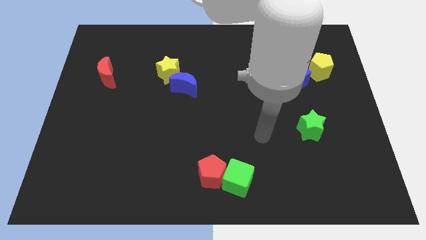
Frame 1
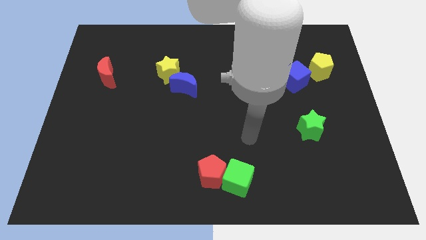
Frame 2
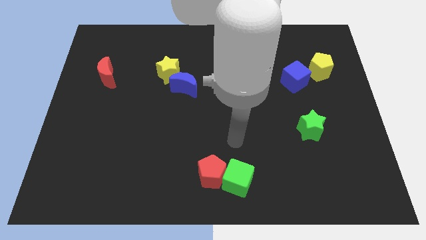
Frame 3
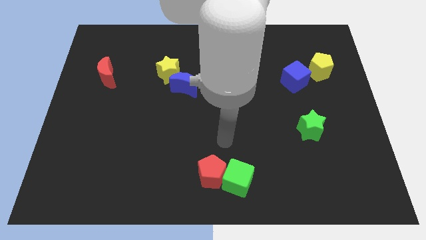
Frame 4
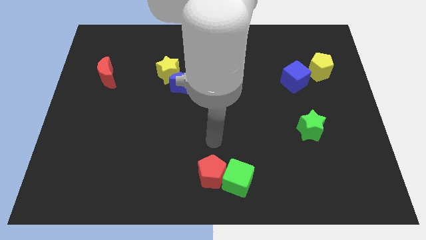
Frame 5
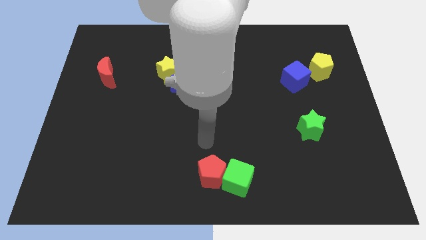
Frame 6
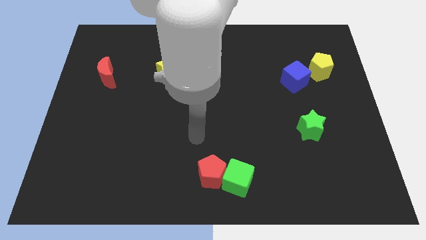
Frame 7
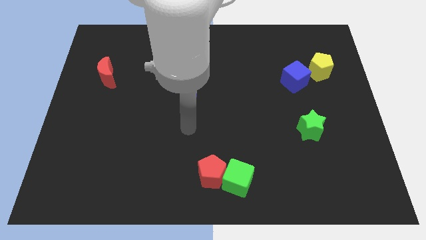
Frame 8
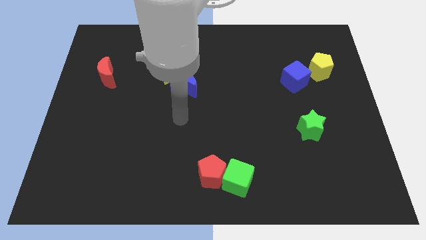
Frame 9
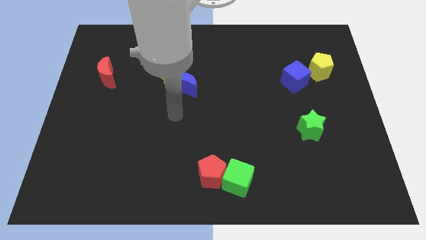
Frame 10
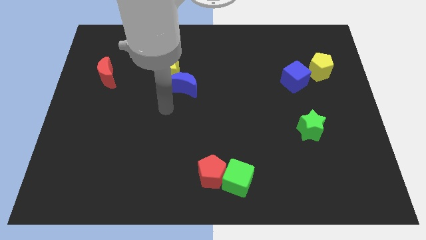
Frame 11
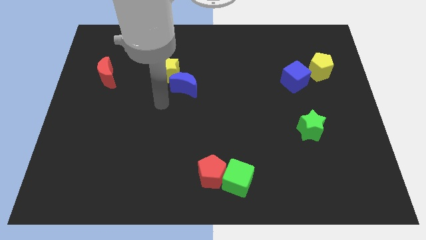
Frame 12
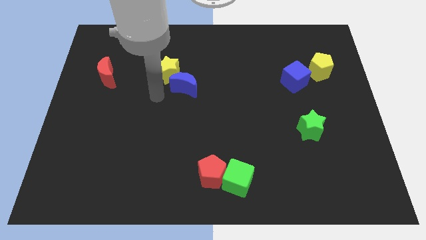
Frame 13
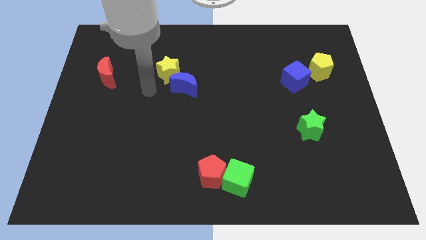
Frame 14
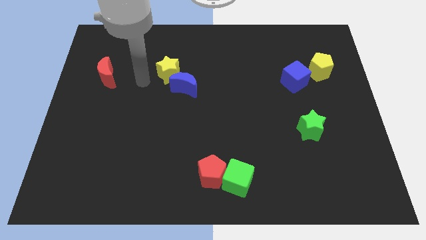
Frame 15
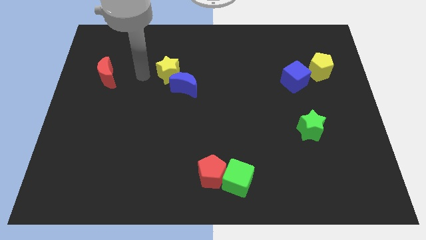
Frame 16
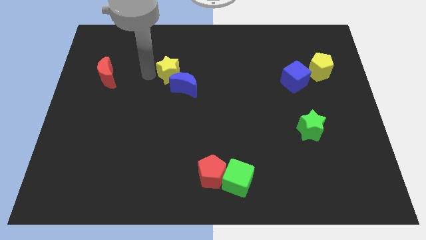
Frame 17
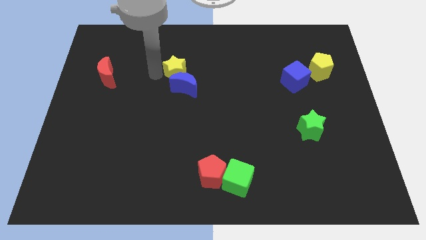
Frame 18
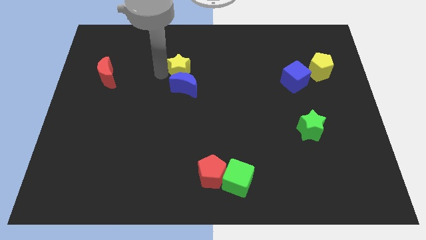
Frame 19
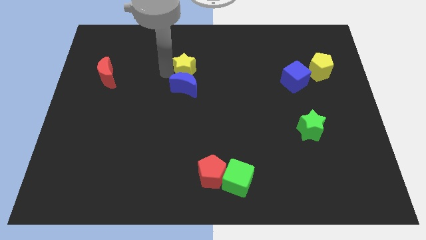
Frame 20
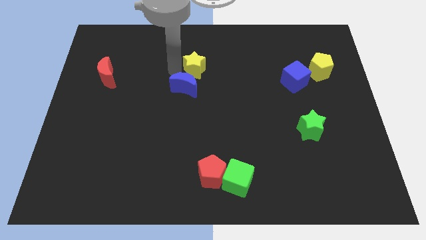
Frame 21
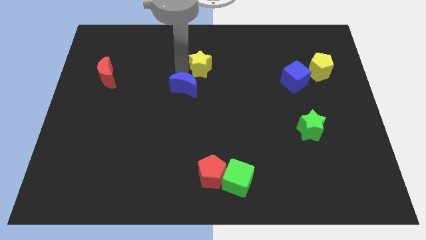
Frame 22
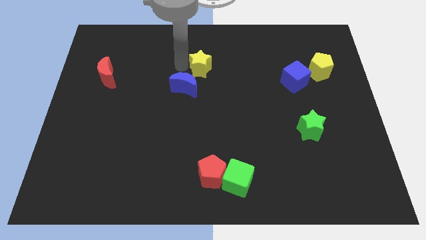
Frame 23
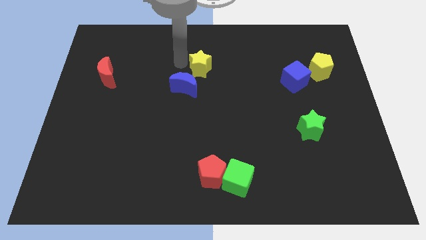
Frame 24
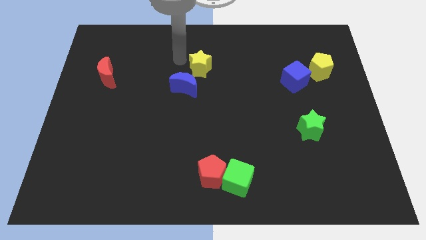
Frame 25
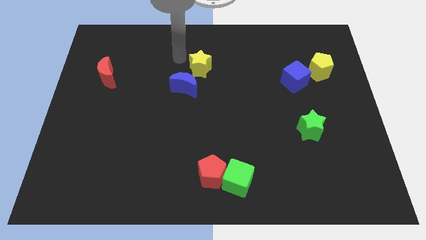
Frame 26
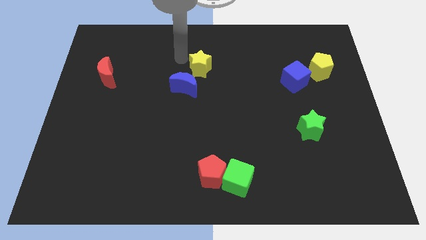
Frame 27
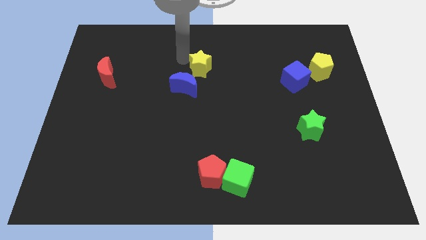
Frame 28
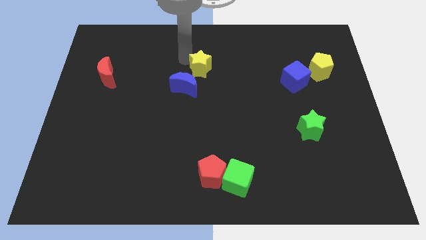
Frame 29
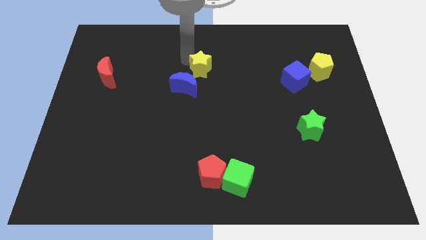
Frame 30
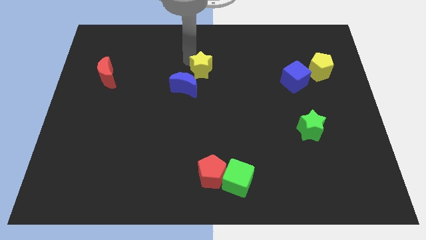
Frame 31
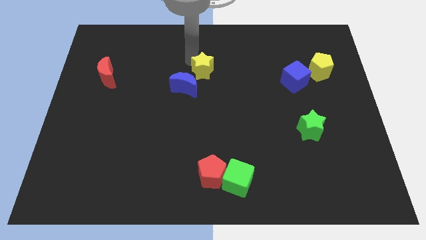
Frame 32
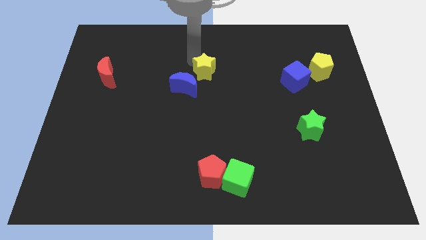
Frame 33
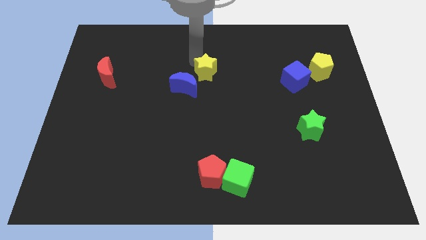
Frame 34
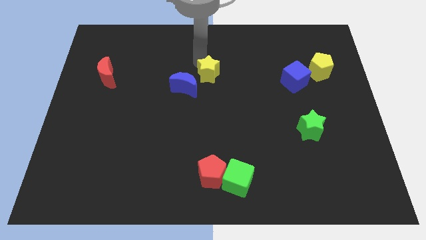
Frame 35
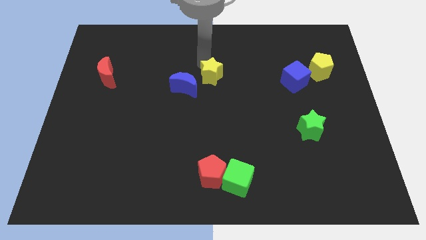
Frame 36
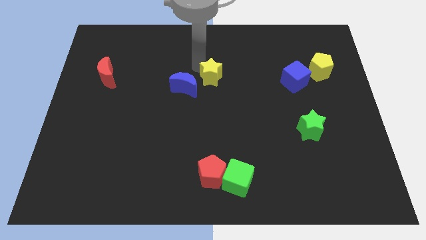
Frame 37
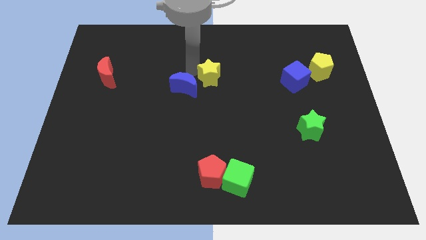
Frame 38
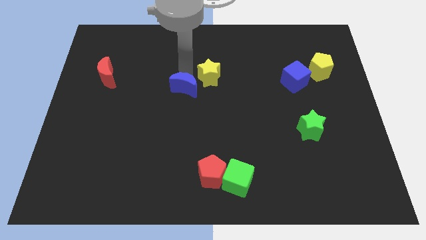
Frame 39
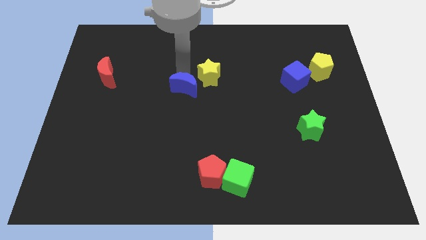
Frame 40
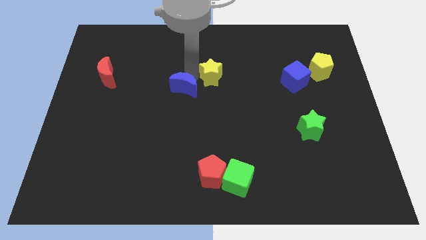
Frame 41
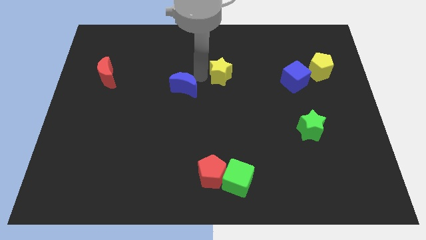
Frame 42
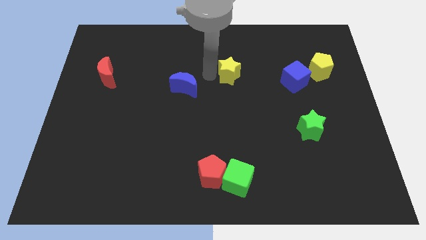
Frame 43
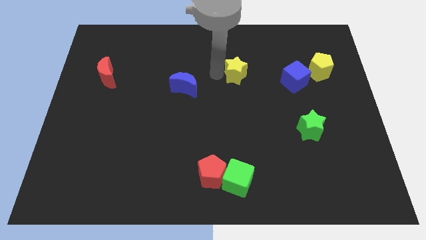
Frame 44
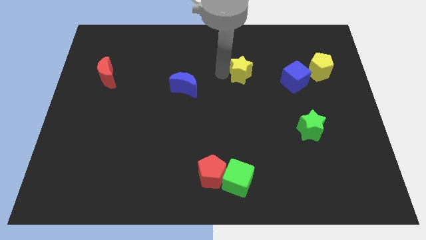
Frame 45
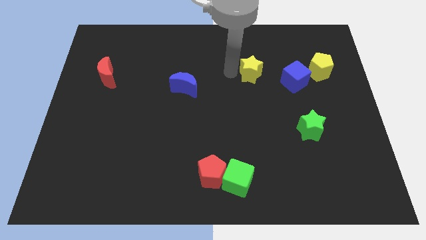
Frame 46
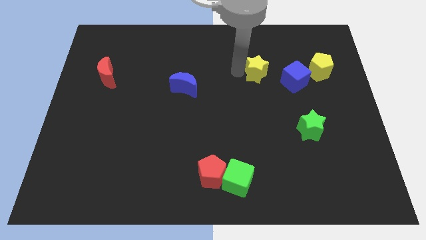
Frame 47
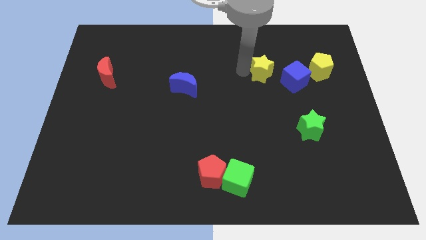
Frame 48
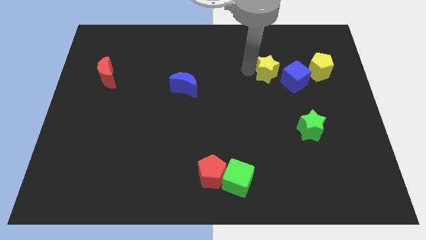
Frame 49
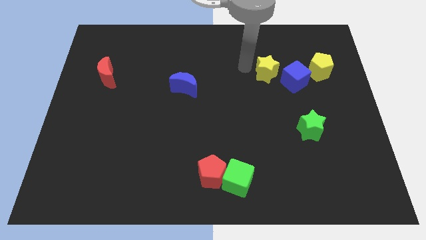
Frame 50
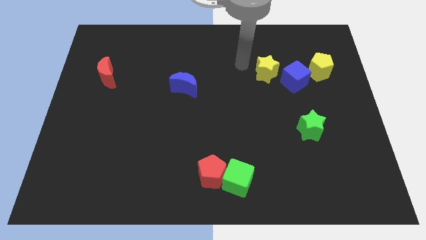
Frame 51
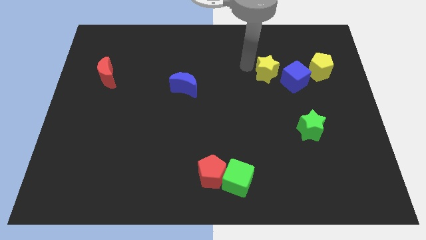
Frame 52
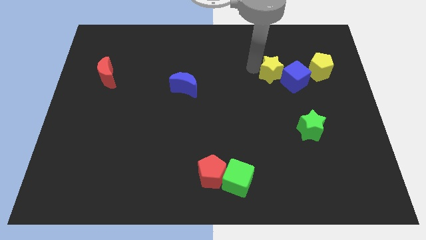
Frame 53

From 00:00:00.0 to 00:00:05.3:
slide the yellow star close to the blue cube

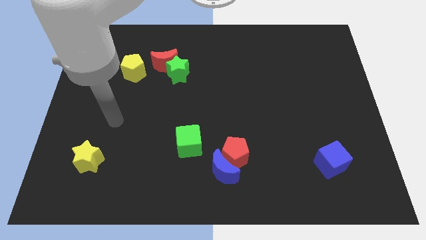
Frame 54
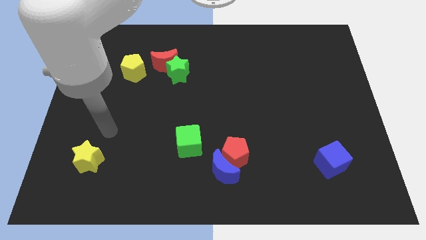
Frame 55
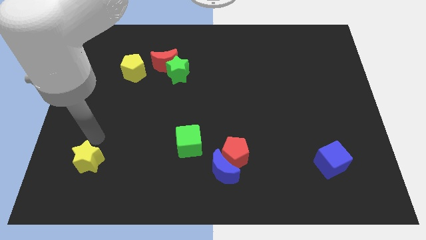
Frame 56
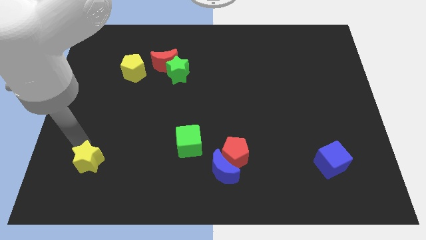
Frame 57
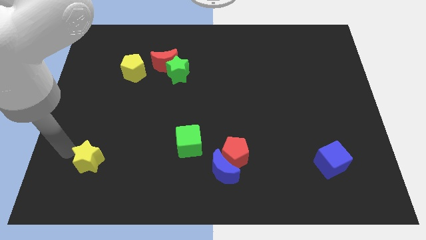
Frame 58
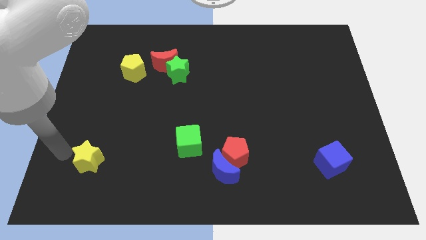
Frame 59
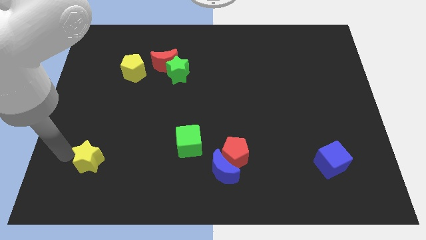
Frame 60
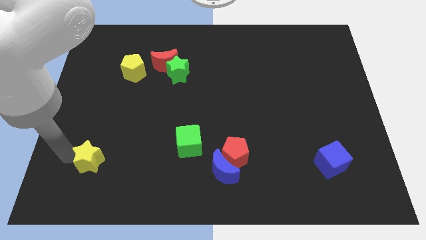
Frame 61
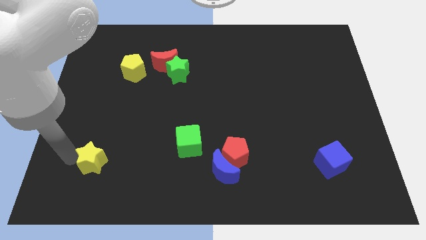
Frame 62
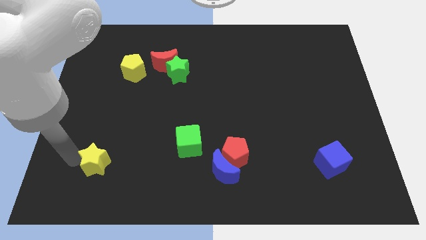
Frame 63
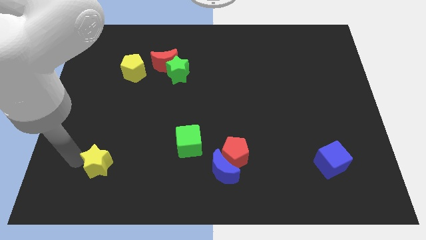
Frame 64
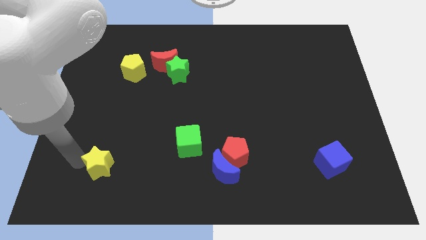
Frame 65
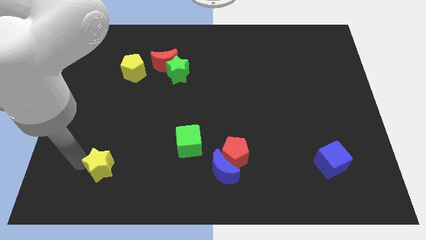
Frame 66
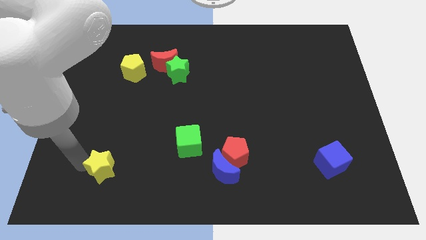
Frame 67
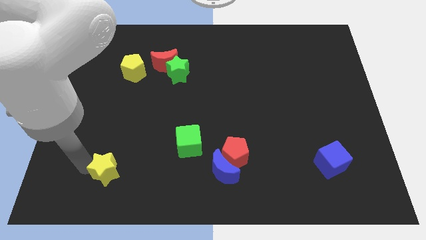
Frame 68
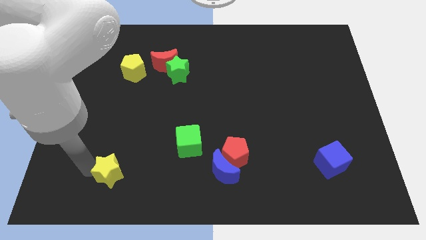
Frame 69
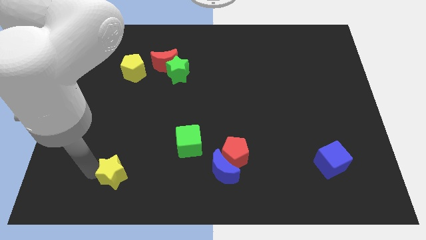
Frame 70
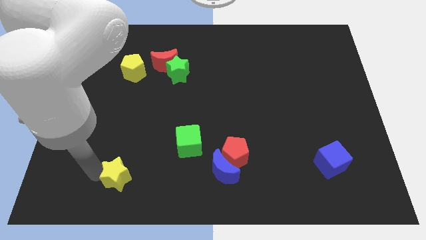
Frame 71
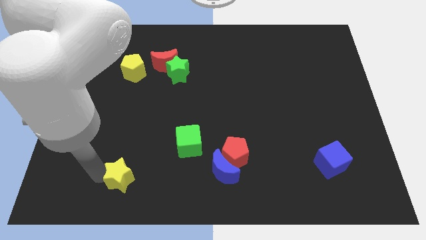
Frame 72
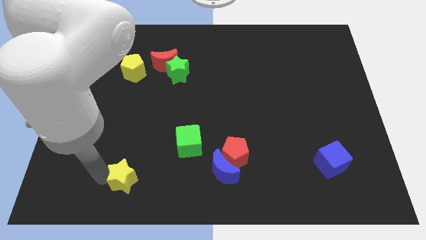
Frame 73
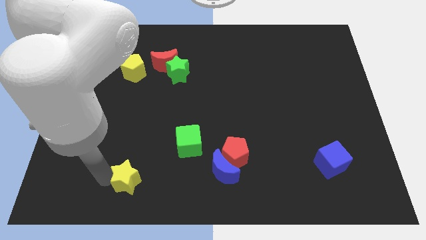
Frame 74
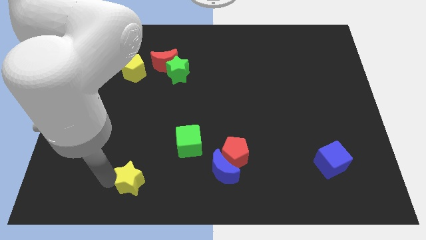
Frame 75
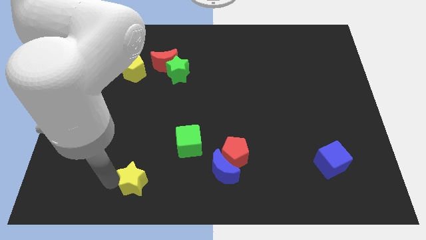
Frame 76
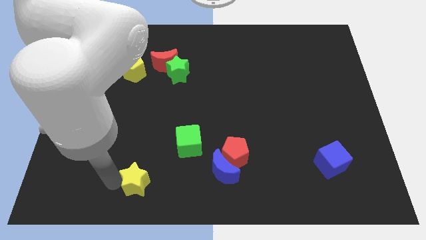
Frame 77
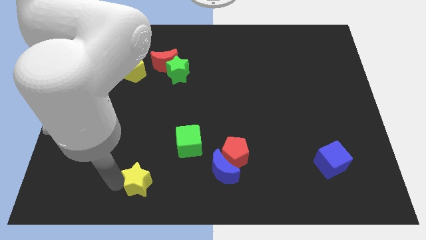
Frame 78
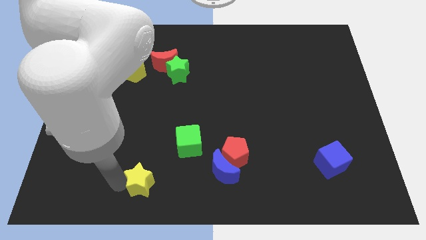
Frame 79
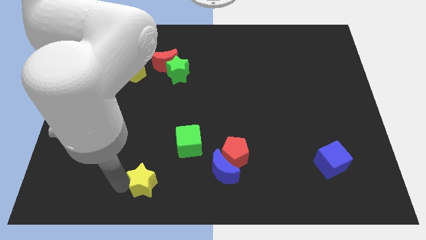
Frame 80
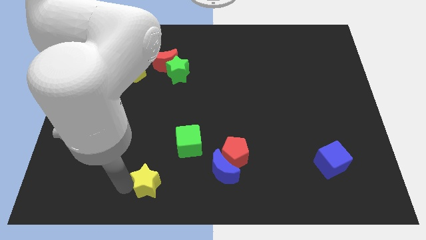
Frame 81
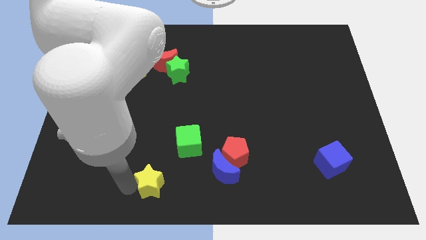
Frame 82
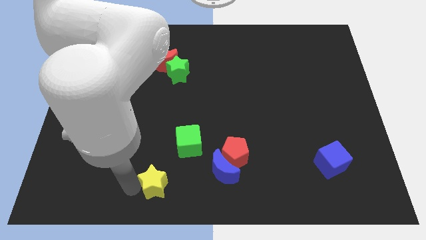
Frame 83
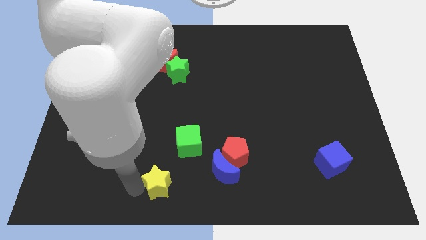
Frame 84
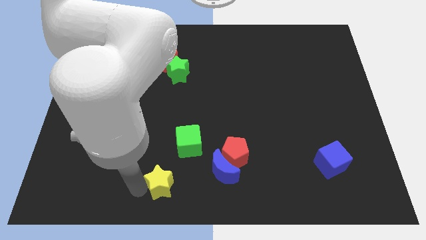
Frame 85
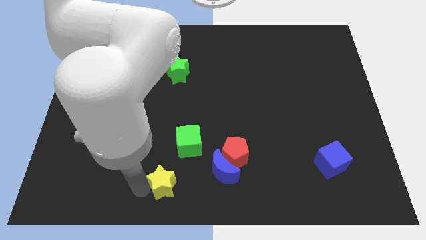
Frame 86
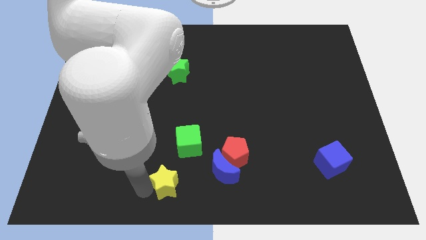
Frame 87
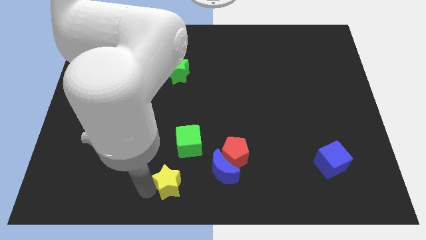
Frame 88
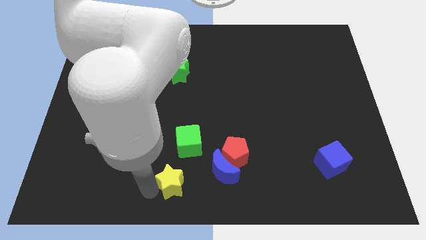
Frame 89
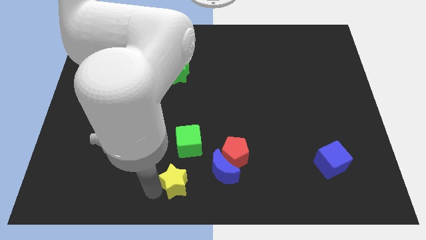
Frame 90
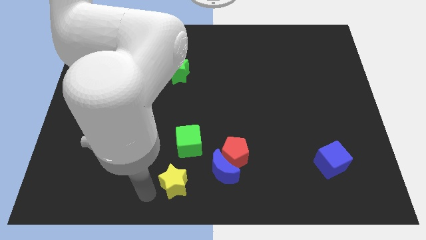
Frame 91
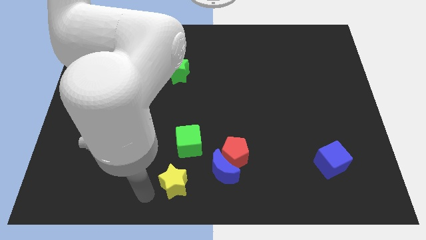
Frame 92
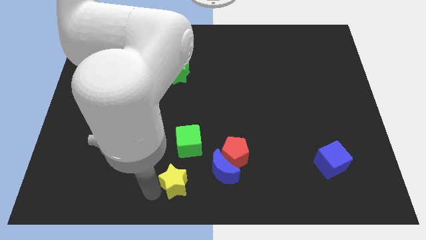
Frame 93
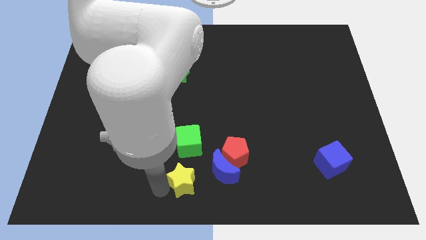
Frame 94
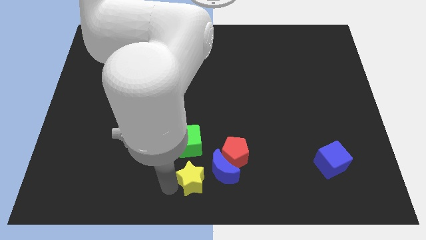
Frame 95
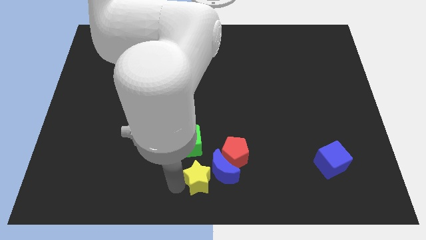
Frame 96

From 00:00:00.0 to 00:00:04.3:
put the yellow star next to the blue moon
